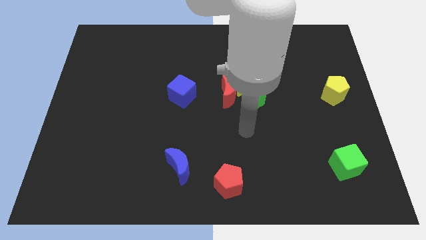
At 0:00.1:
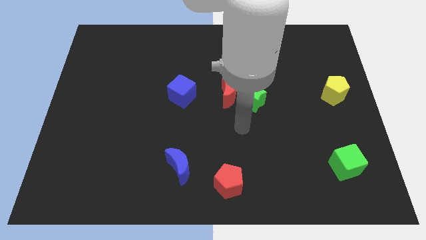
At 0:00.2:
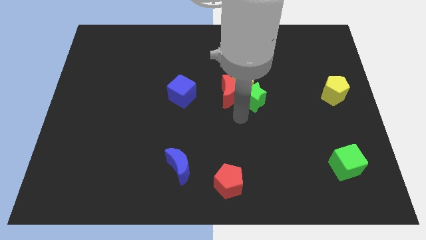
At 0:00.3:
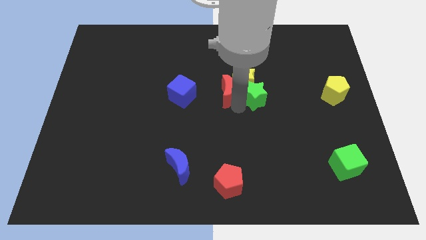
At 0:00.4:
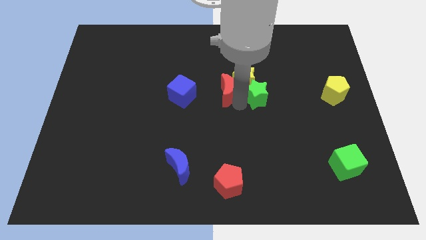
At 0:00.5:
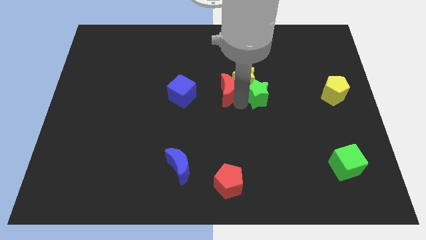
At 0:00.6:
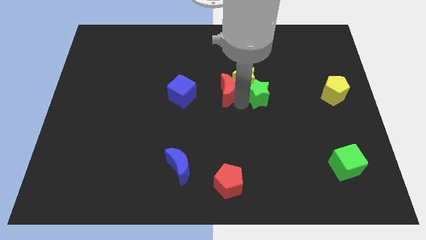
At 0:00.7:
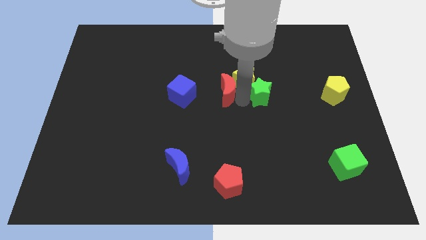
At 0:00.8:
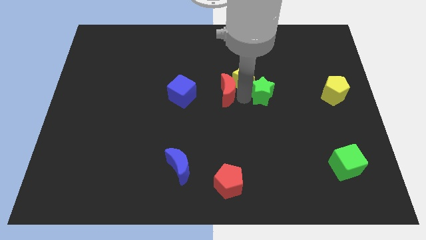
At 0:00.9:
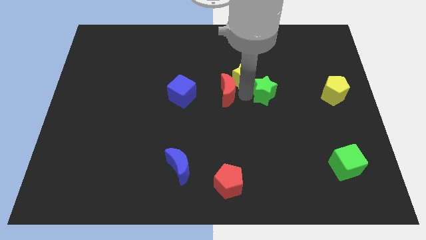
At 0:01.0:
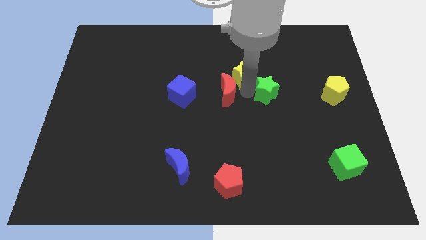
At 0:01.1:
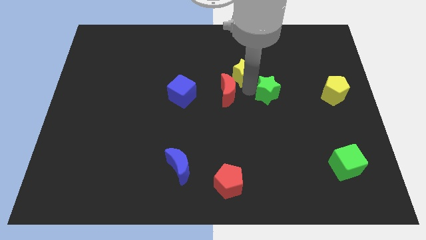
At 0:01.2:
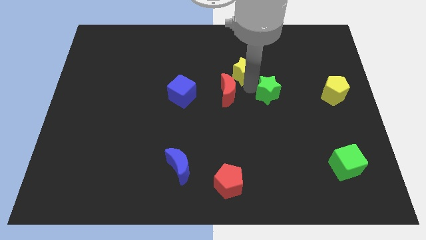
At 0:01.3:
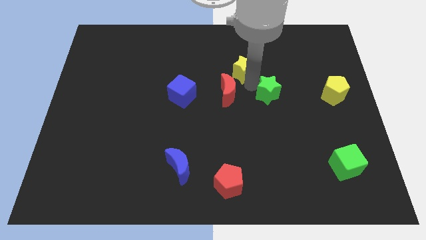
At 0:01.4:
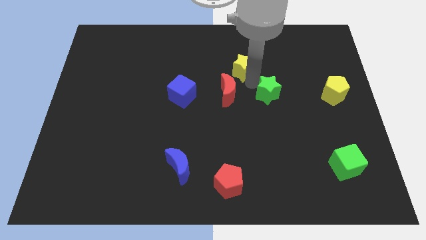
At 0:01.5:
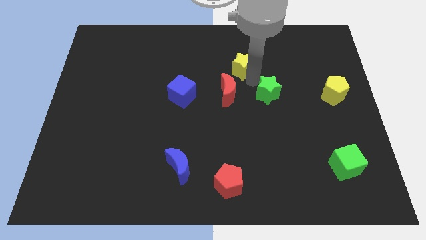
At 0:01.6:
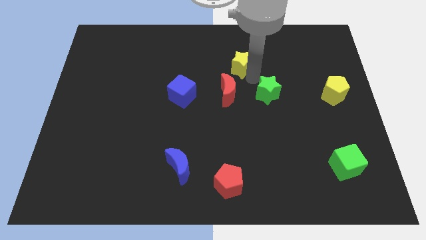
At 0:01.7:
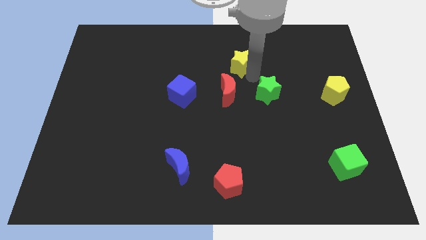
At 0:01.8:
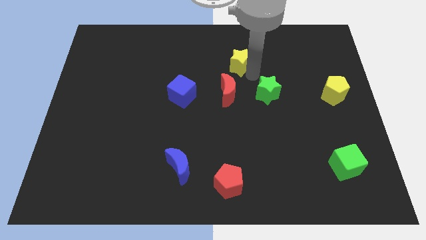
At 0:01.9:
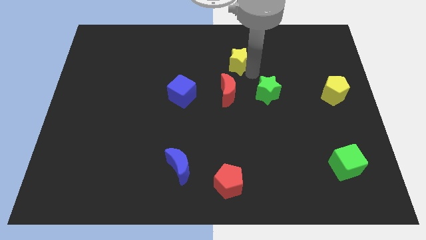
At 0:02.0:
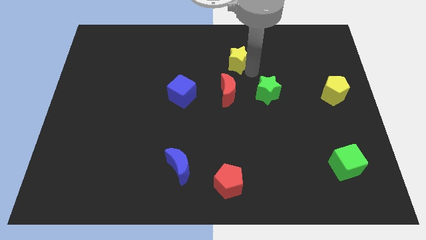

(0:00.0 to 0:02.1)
separate the yellow star from the red moon and green star

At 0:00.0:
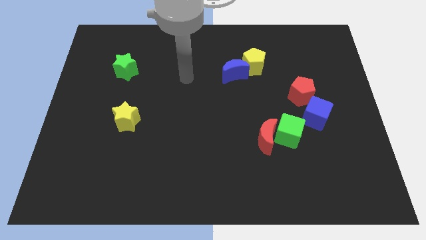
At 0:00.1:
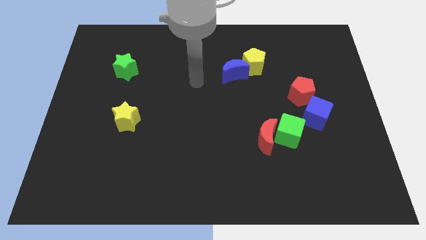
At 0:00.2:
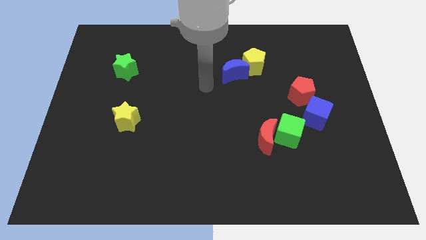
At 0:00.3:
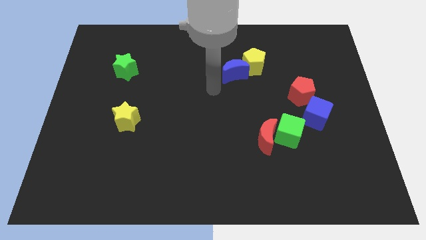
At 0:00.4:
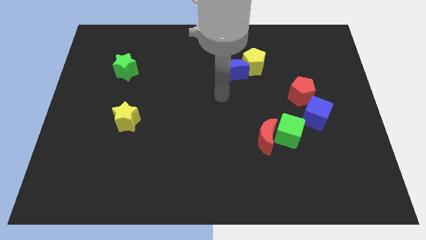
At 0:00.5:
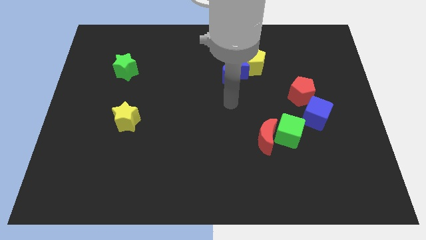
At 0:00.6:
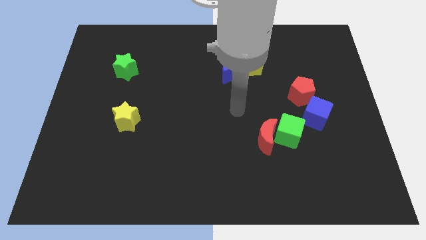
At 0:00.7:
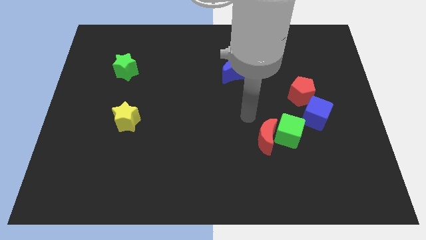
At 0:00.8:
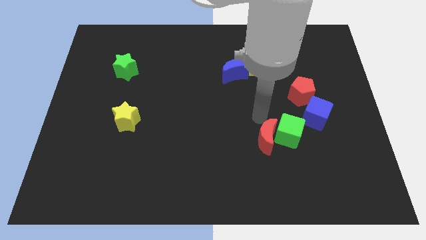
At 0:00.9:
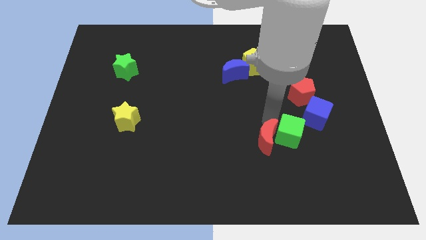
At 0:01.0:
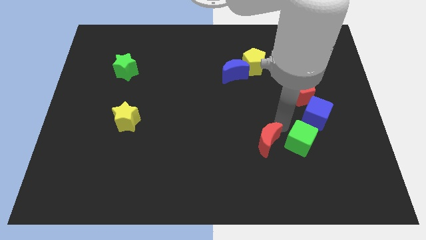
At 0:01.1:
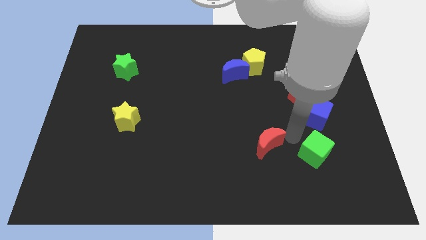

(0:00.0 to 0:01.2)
pull the red moon apart from the green cube

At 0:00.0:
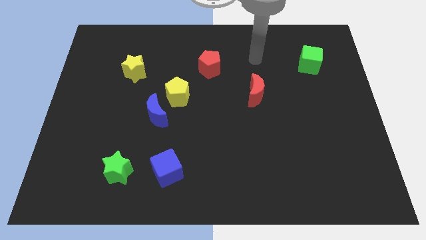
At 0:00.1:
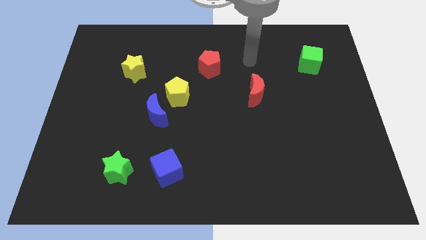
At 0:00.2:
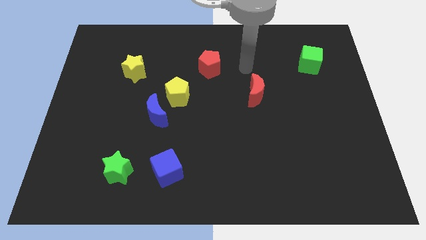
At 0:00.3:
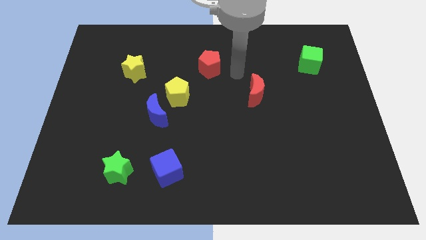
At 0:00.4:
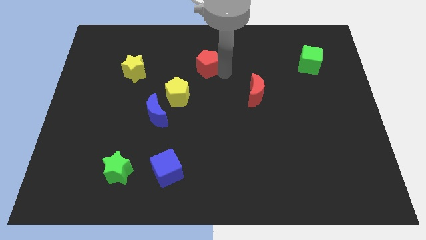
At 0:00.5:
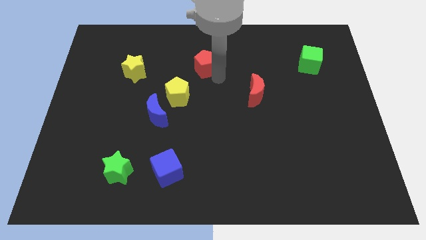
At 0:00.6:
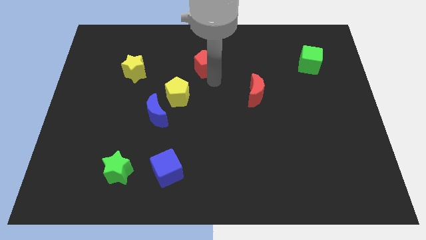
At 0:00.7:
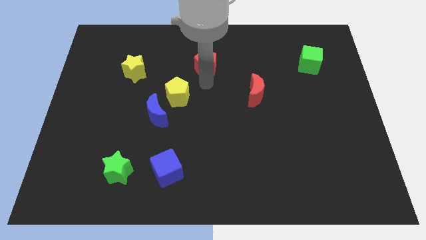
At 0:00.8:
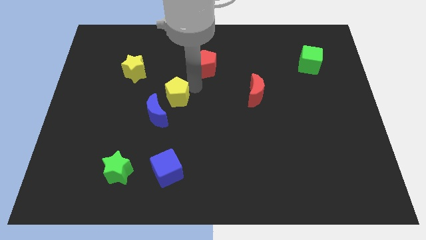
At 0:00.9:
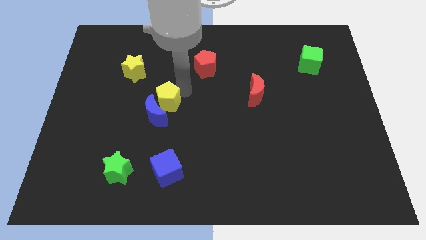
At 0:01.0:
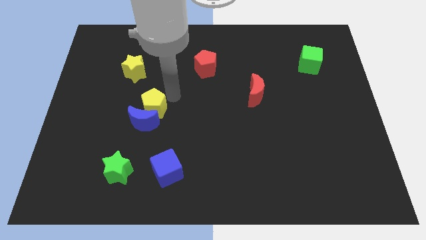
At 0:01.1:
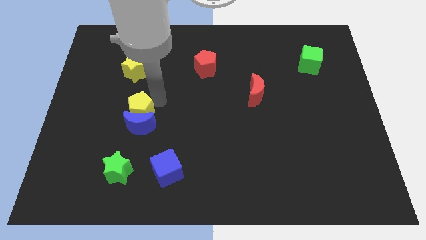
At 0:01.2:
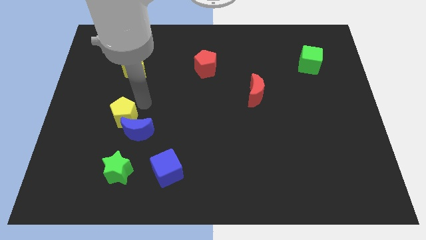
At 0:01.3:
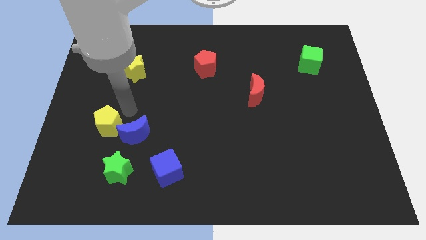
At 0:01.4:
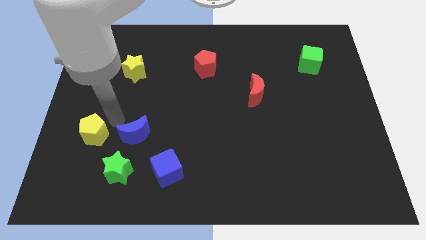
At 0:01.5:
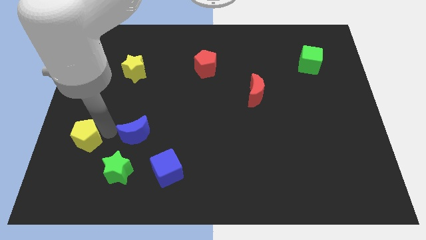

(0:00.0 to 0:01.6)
separate the blue moon from the yellow pentagon

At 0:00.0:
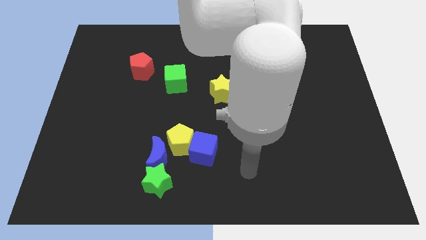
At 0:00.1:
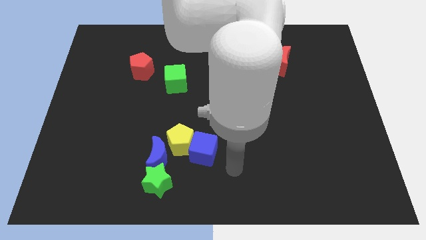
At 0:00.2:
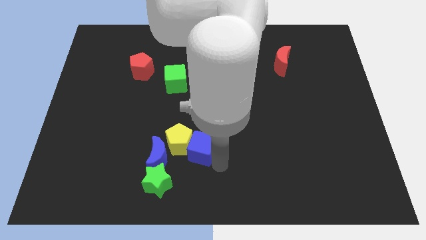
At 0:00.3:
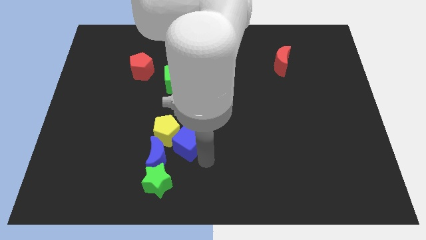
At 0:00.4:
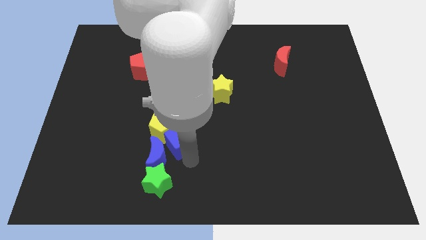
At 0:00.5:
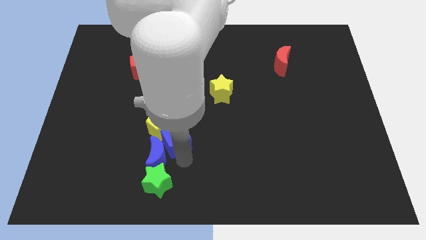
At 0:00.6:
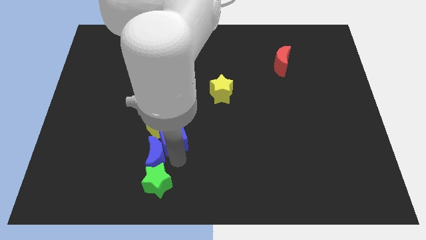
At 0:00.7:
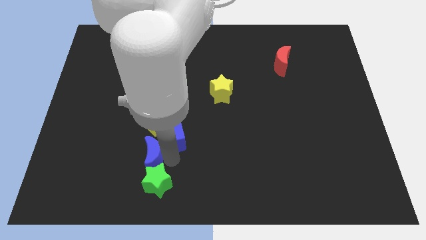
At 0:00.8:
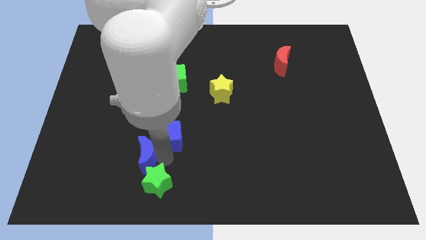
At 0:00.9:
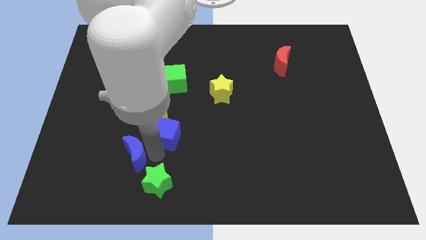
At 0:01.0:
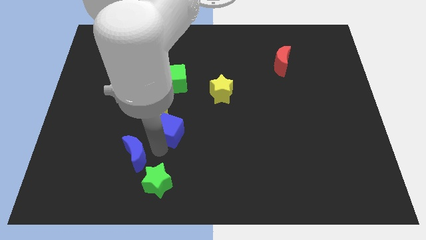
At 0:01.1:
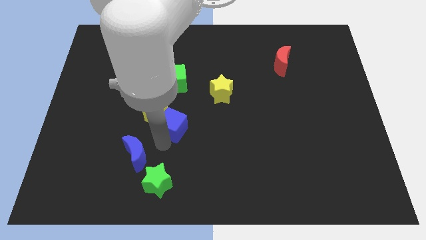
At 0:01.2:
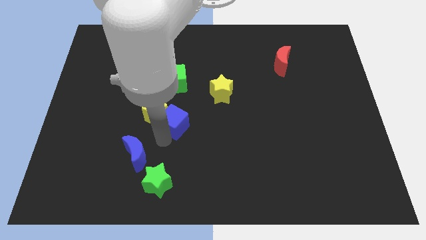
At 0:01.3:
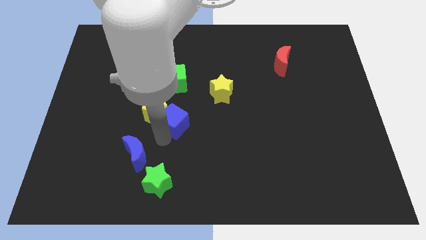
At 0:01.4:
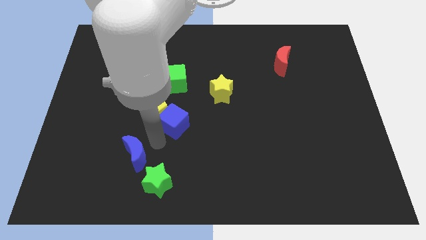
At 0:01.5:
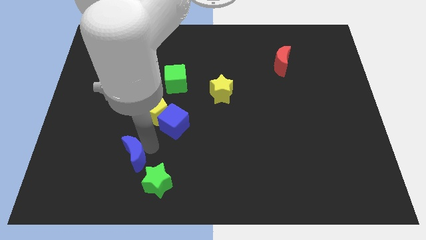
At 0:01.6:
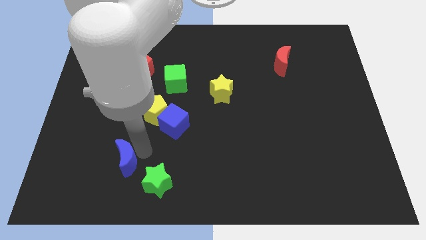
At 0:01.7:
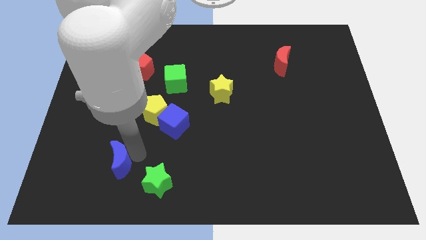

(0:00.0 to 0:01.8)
move the blue moon away from the green star, yellow pentagon, and blue cube

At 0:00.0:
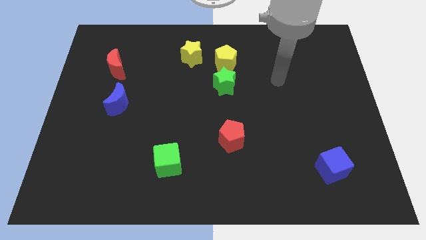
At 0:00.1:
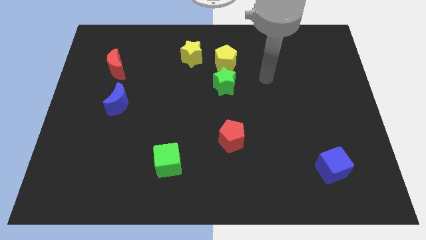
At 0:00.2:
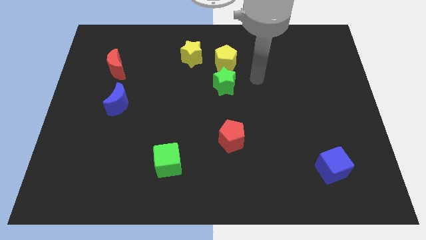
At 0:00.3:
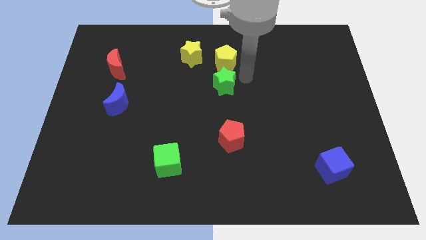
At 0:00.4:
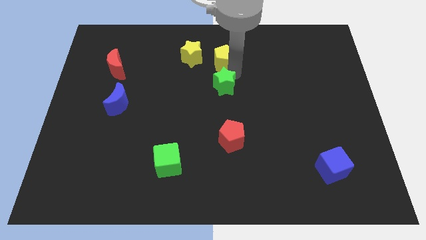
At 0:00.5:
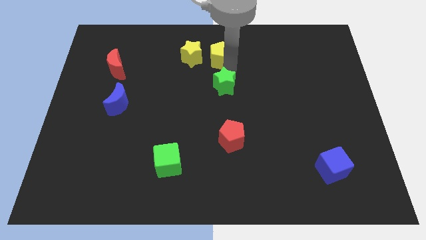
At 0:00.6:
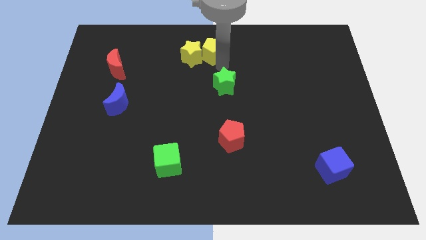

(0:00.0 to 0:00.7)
move the green star away from the yellow pentagon

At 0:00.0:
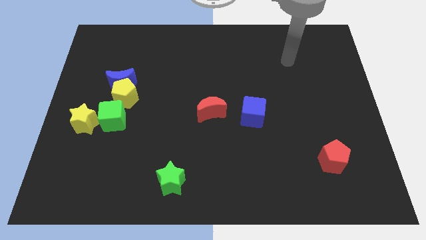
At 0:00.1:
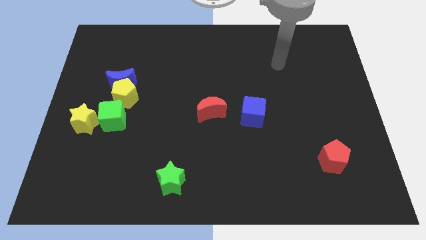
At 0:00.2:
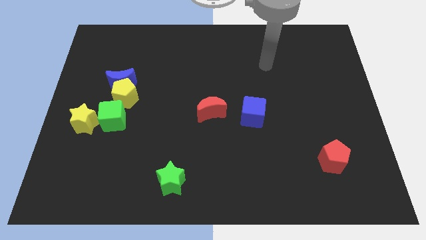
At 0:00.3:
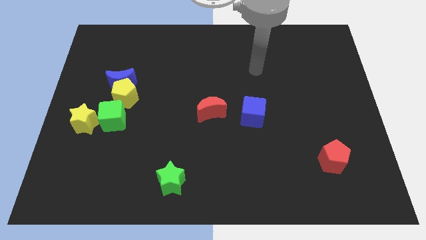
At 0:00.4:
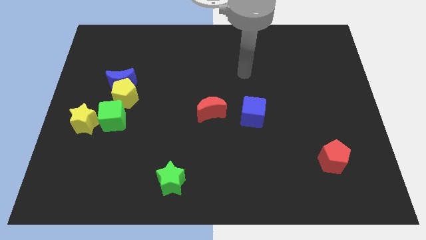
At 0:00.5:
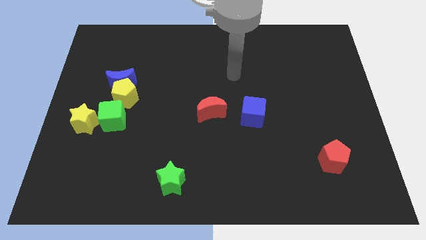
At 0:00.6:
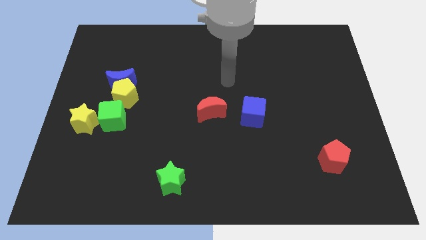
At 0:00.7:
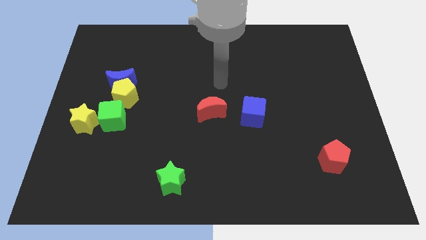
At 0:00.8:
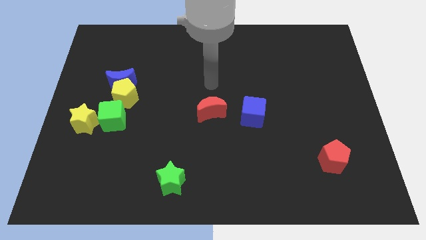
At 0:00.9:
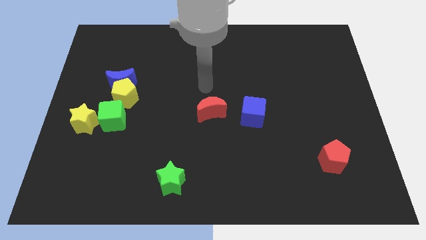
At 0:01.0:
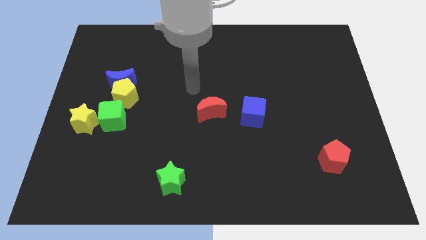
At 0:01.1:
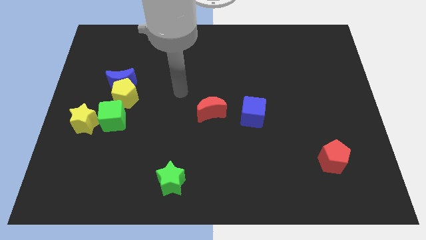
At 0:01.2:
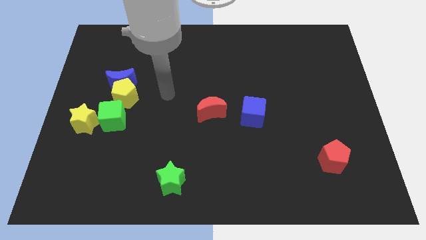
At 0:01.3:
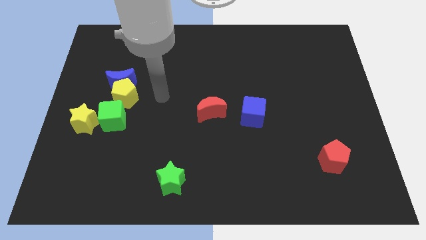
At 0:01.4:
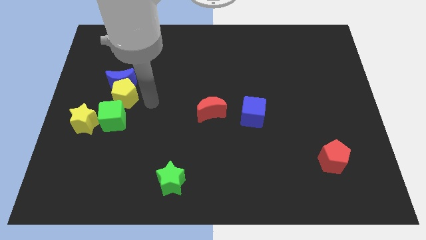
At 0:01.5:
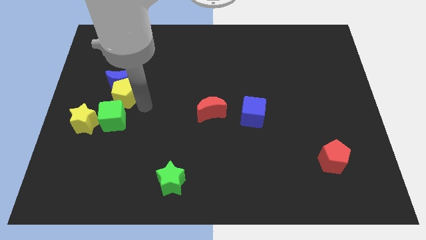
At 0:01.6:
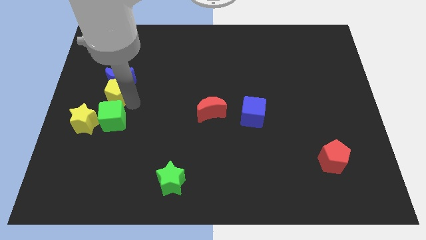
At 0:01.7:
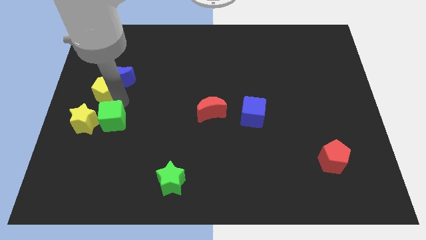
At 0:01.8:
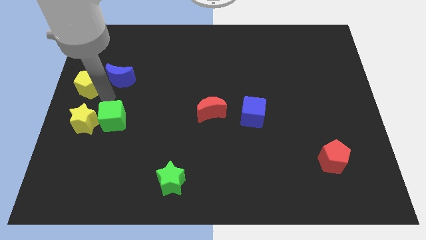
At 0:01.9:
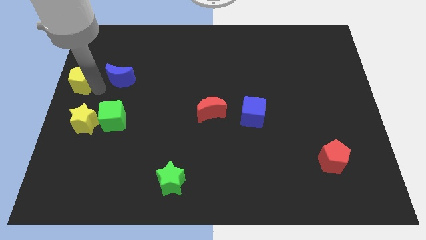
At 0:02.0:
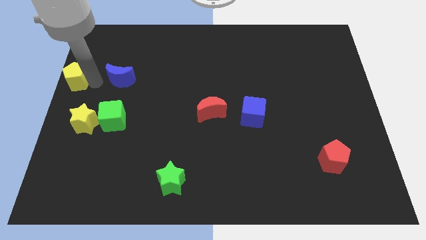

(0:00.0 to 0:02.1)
pull the blue moon apart from the yellow pentagon
